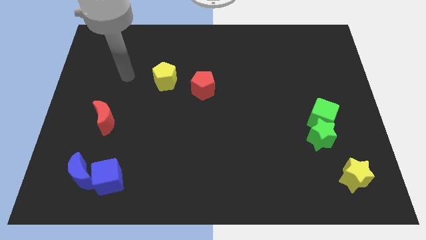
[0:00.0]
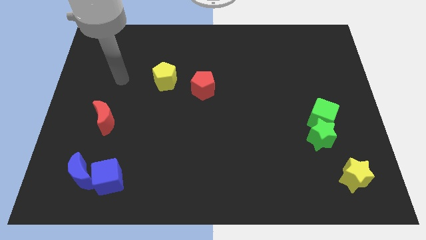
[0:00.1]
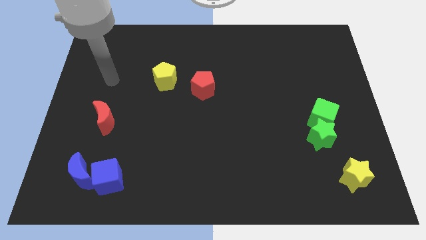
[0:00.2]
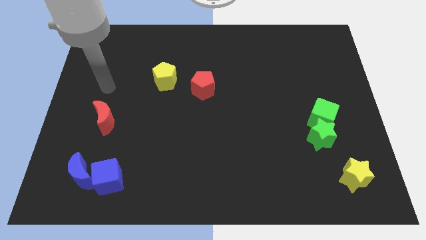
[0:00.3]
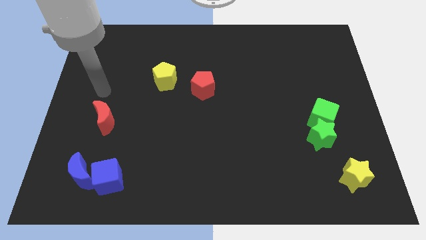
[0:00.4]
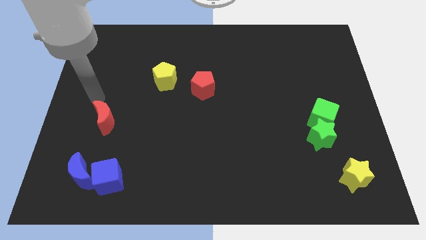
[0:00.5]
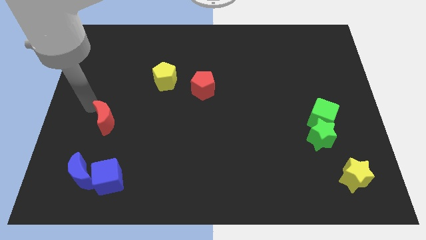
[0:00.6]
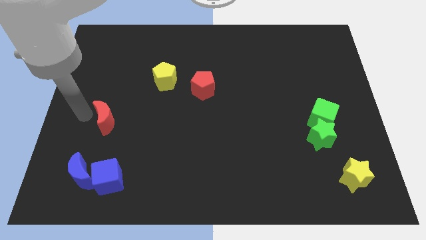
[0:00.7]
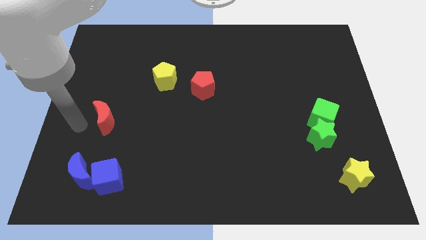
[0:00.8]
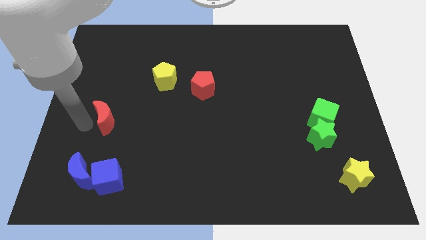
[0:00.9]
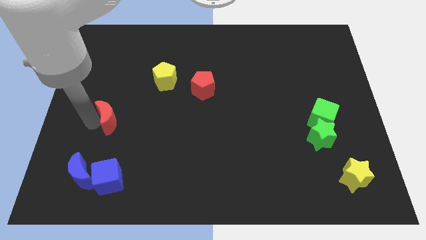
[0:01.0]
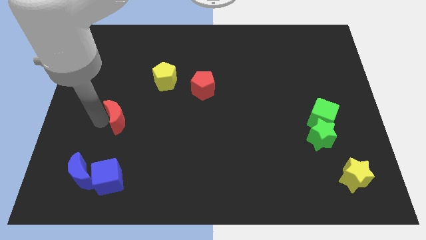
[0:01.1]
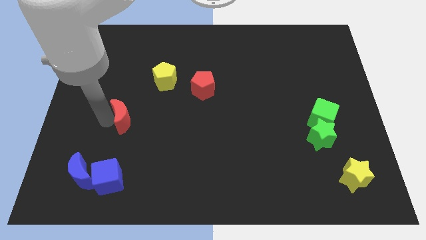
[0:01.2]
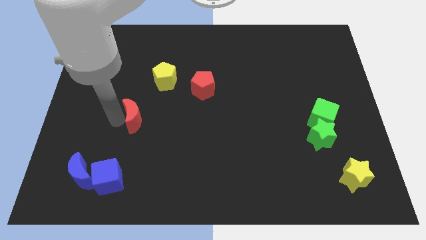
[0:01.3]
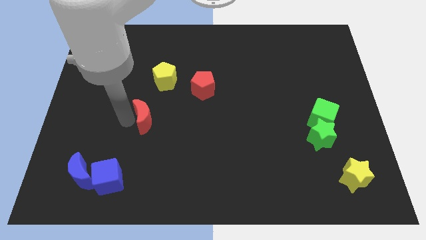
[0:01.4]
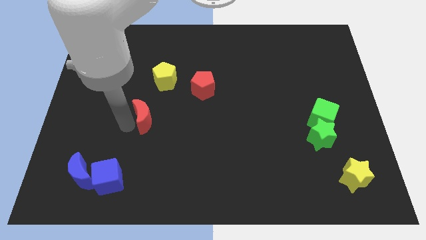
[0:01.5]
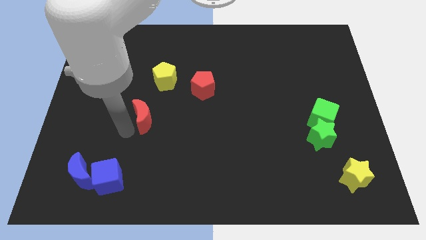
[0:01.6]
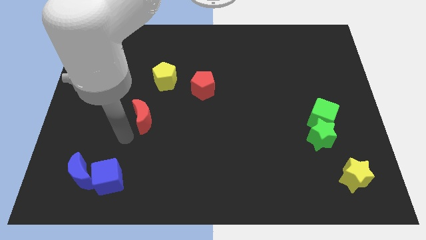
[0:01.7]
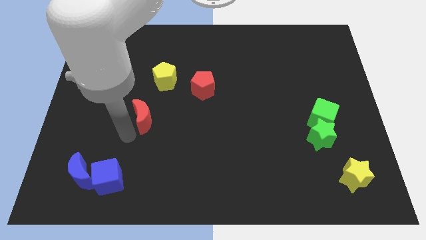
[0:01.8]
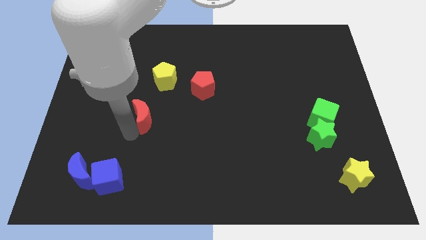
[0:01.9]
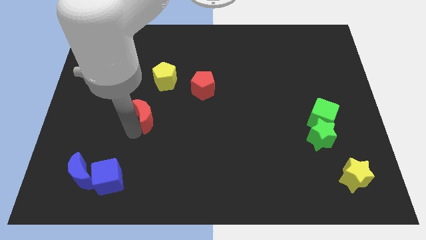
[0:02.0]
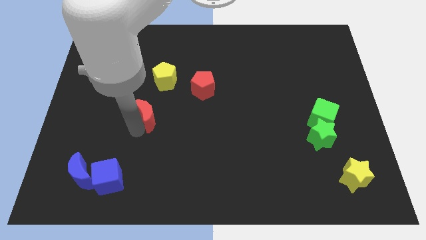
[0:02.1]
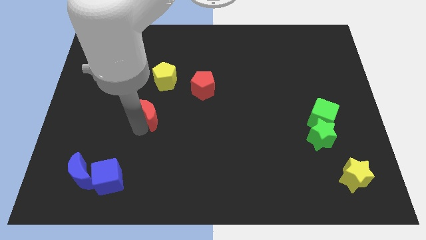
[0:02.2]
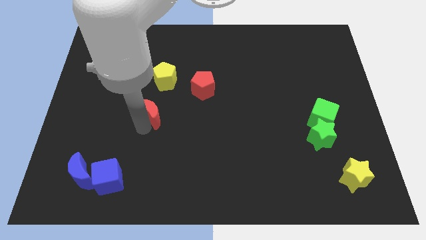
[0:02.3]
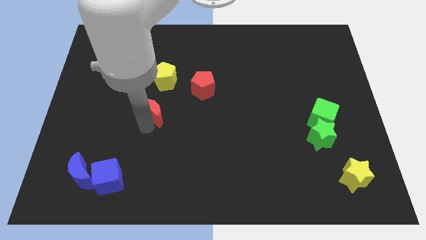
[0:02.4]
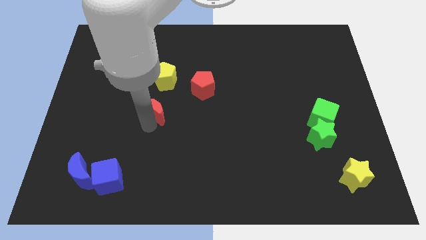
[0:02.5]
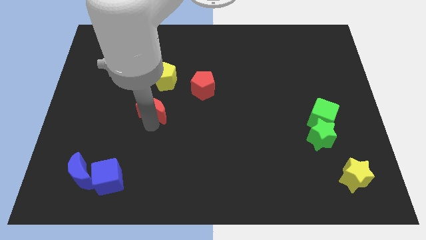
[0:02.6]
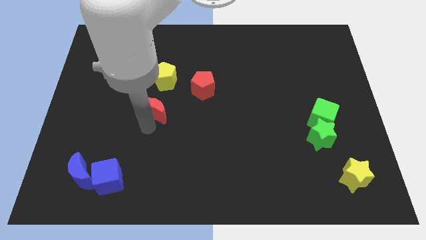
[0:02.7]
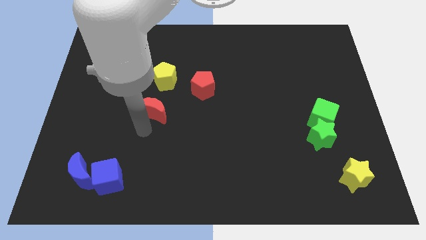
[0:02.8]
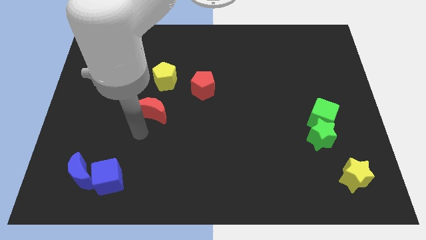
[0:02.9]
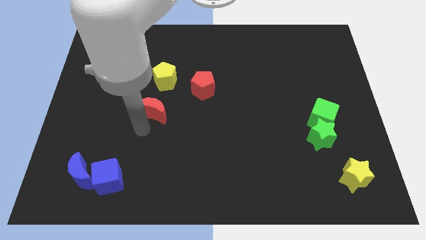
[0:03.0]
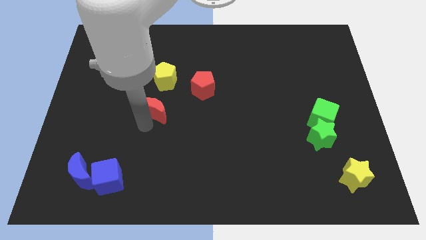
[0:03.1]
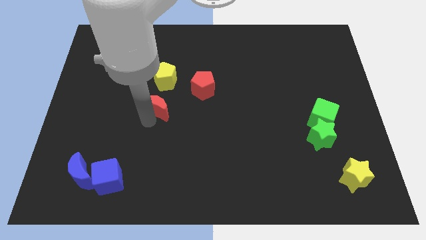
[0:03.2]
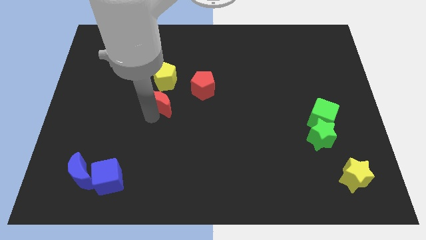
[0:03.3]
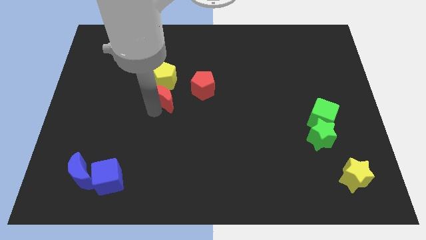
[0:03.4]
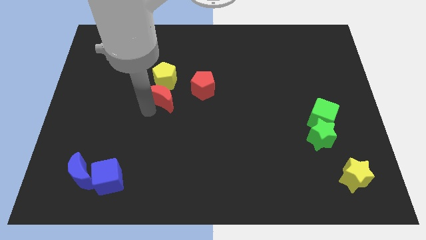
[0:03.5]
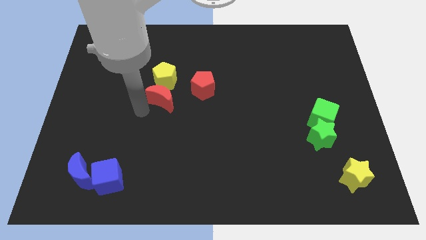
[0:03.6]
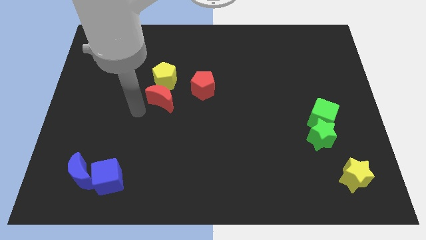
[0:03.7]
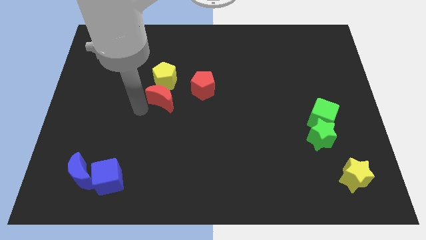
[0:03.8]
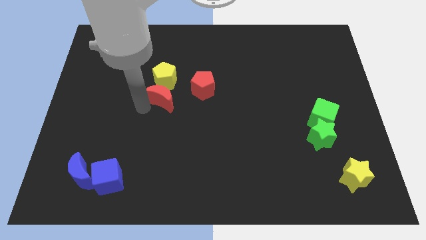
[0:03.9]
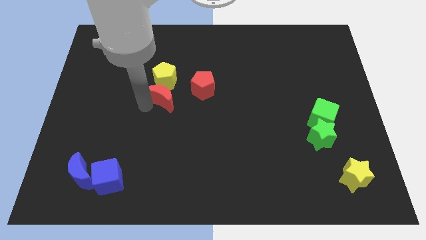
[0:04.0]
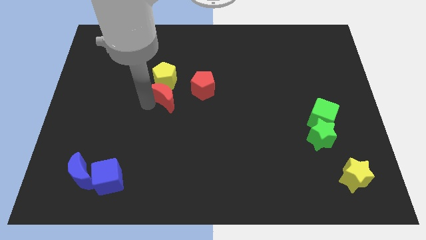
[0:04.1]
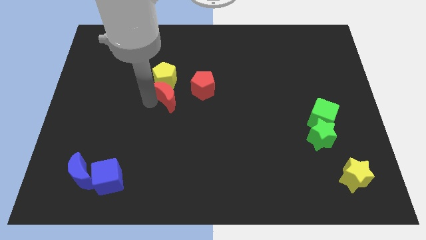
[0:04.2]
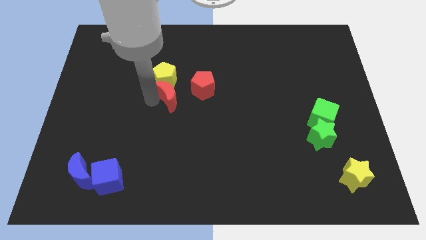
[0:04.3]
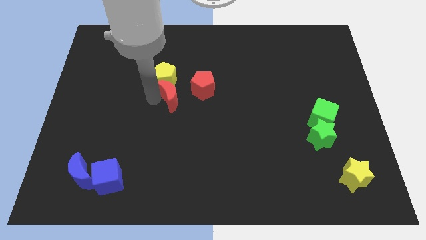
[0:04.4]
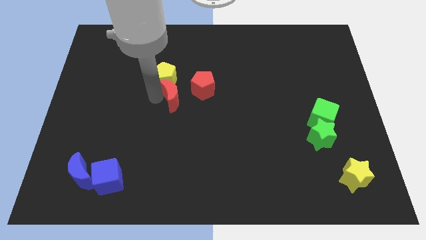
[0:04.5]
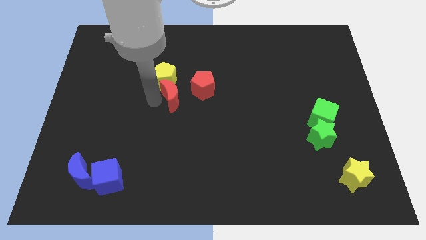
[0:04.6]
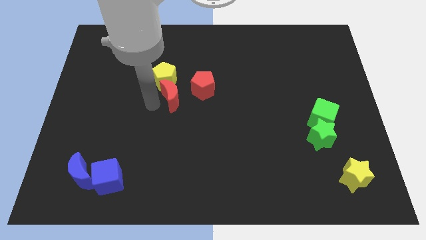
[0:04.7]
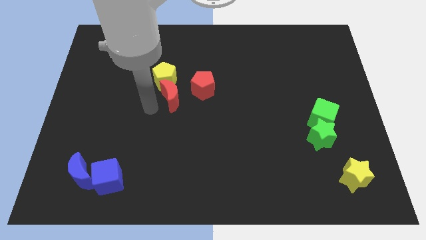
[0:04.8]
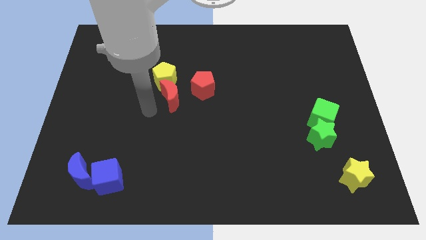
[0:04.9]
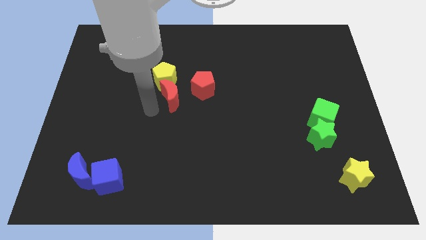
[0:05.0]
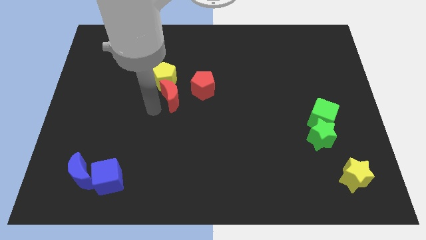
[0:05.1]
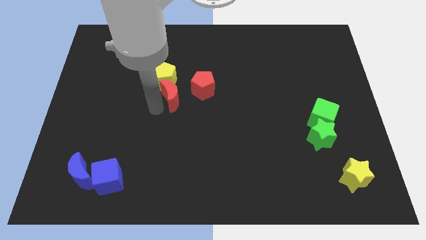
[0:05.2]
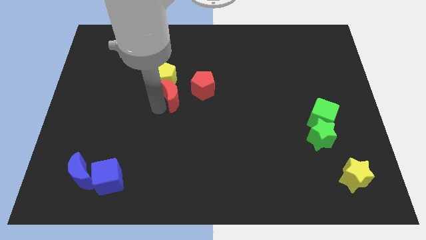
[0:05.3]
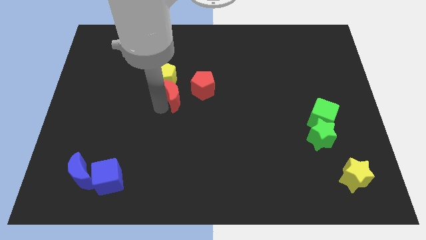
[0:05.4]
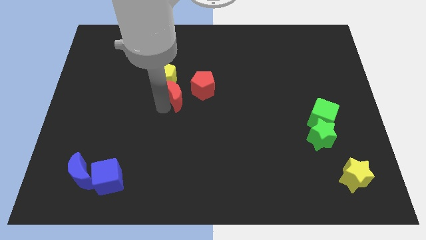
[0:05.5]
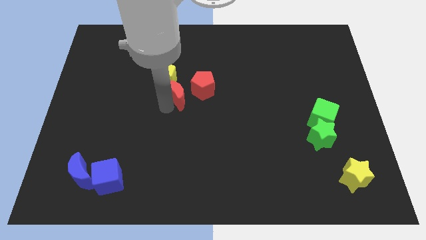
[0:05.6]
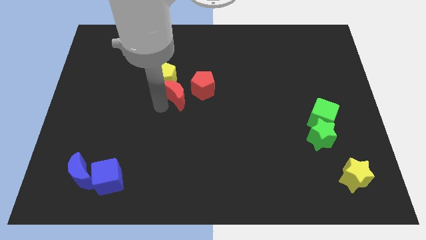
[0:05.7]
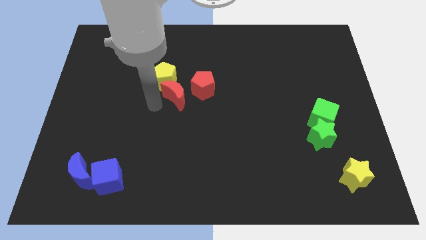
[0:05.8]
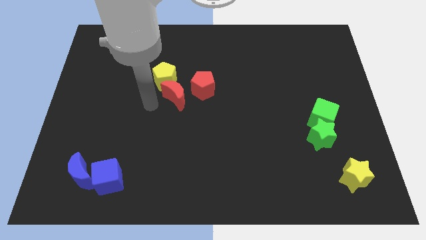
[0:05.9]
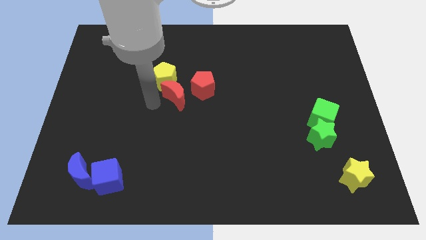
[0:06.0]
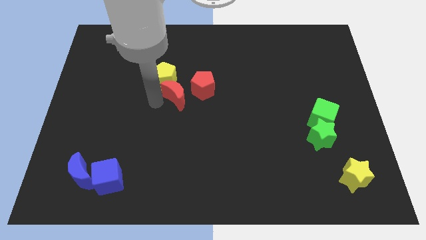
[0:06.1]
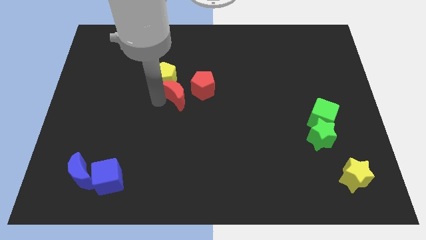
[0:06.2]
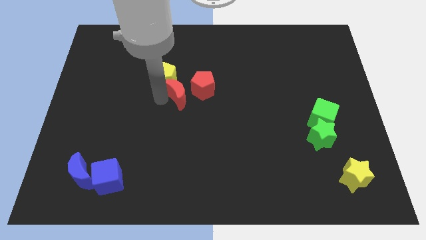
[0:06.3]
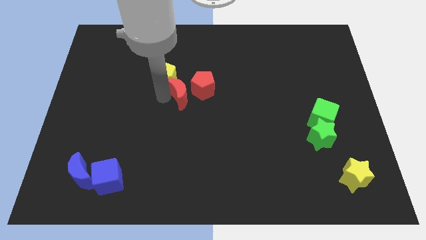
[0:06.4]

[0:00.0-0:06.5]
push the red moon next to the red pentagon

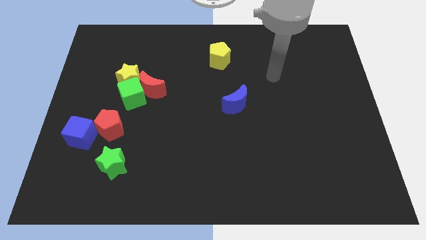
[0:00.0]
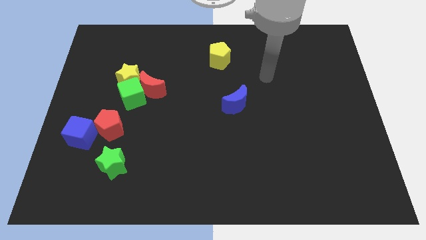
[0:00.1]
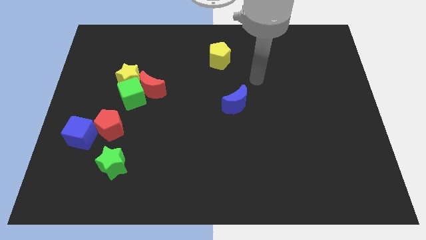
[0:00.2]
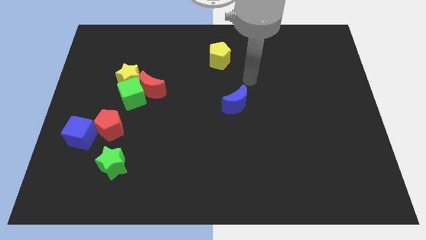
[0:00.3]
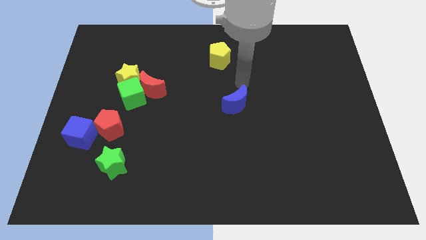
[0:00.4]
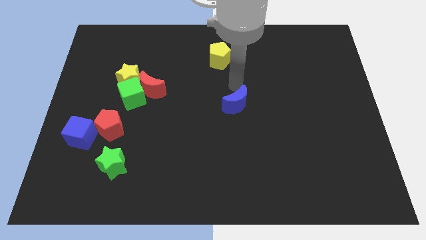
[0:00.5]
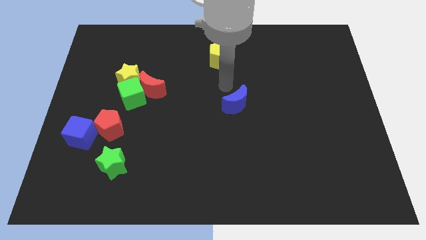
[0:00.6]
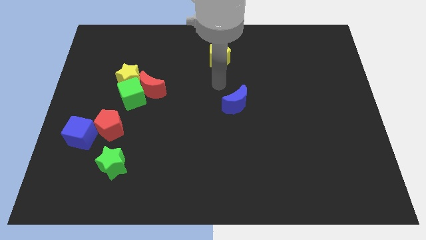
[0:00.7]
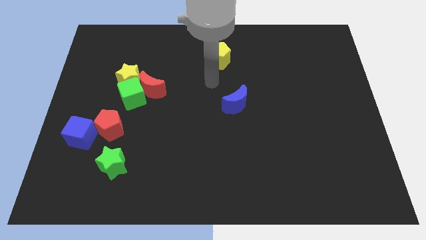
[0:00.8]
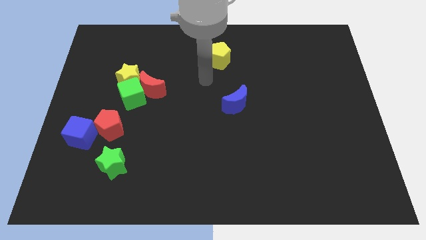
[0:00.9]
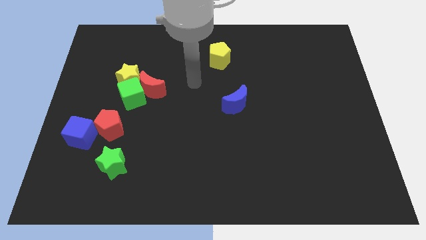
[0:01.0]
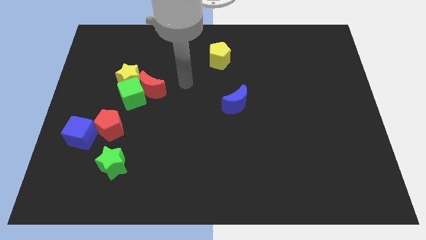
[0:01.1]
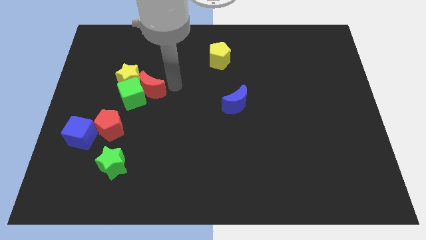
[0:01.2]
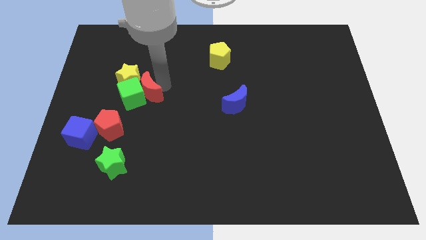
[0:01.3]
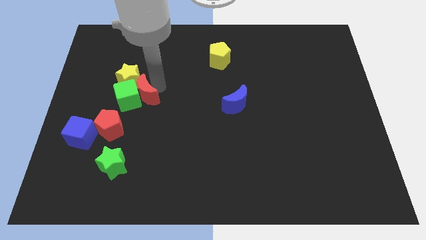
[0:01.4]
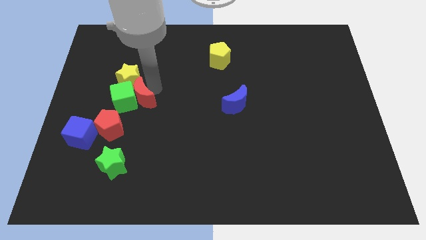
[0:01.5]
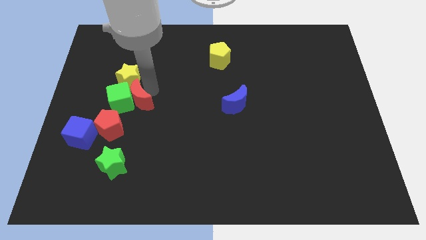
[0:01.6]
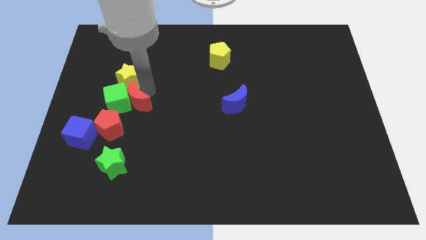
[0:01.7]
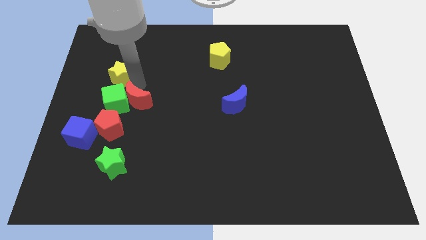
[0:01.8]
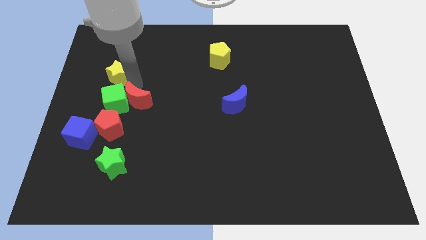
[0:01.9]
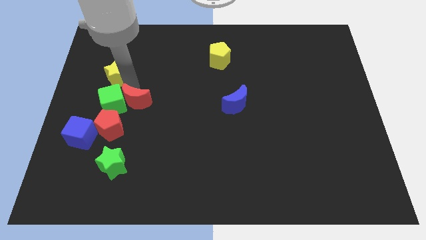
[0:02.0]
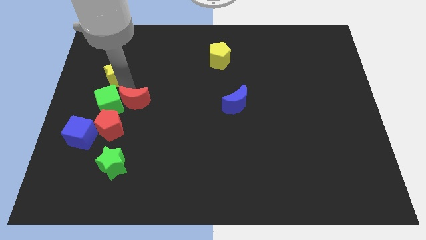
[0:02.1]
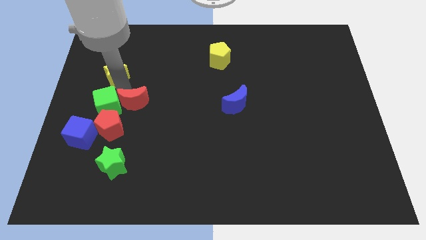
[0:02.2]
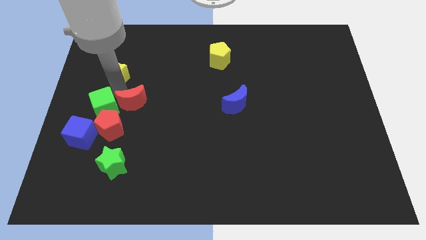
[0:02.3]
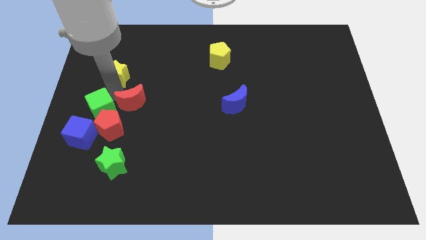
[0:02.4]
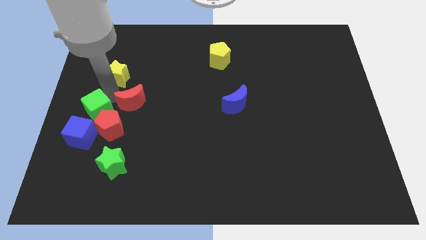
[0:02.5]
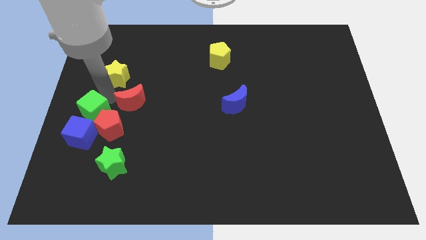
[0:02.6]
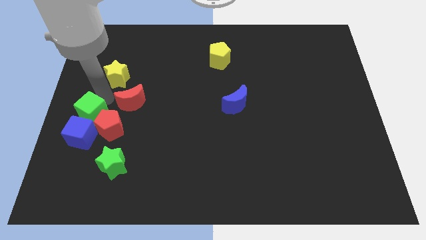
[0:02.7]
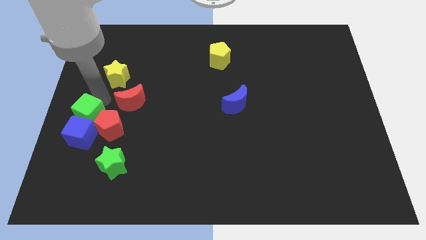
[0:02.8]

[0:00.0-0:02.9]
put the green cube next to the blue cube
